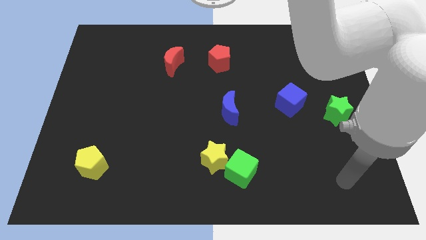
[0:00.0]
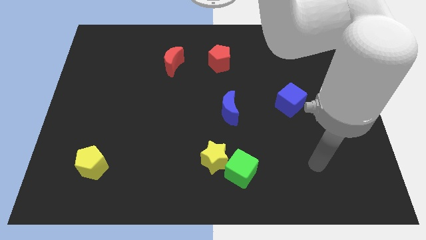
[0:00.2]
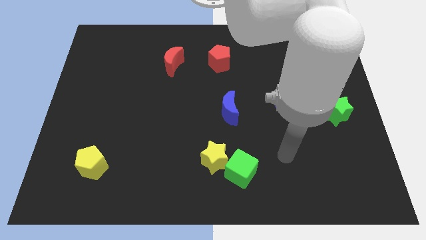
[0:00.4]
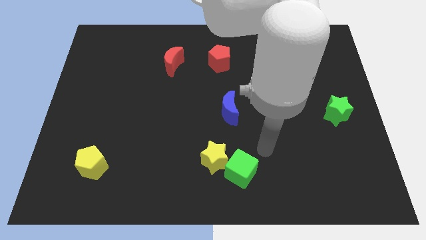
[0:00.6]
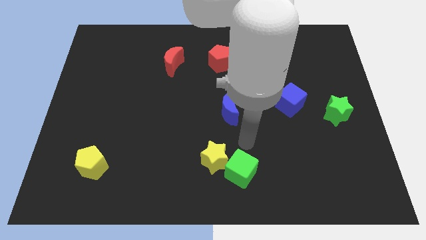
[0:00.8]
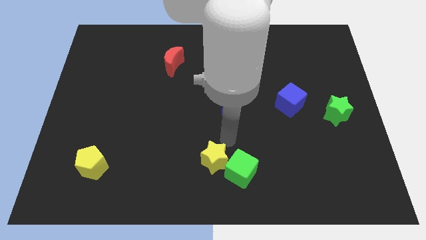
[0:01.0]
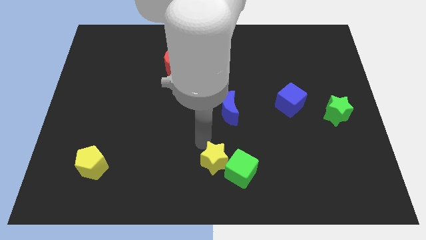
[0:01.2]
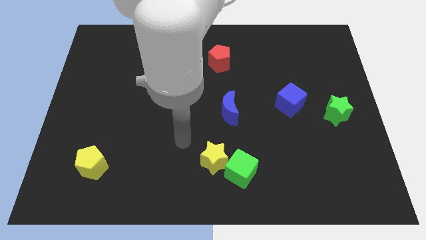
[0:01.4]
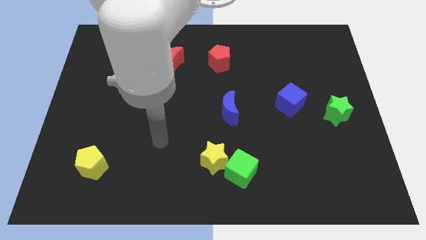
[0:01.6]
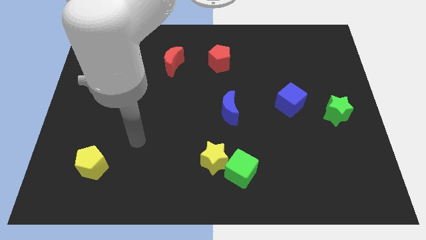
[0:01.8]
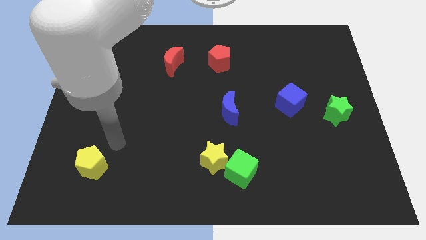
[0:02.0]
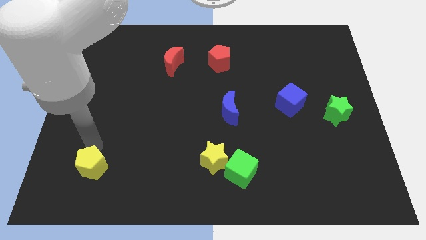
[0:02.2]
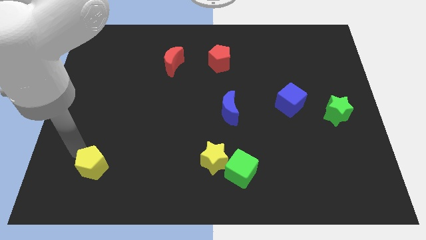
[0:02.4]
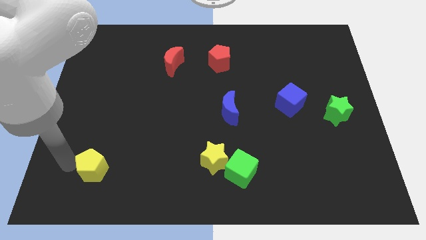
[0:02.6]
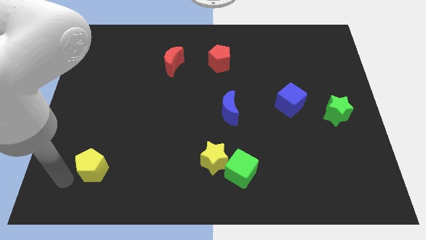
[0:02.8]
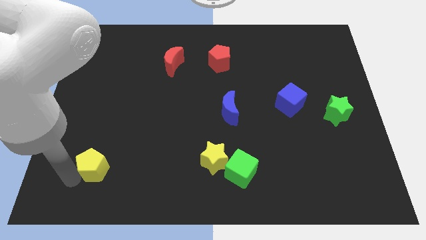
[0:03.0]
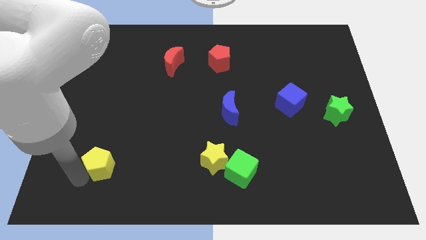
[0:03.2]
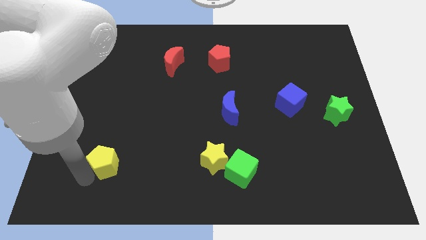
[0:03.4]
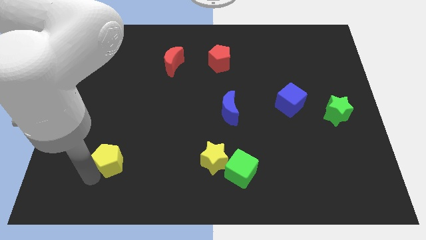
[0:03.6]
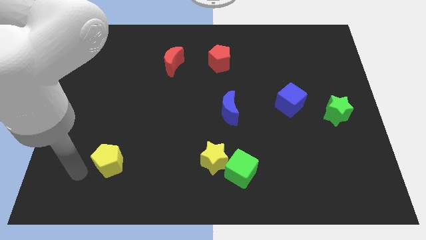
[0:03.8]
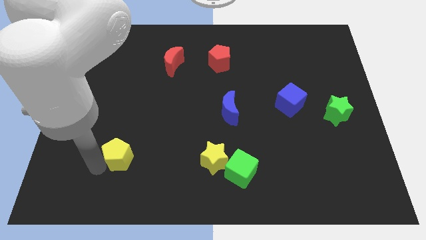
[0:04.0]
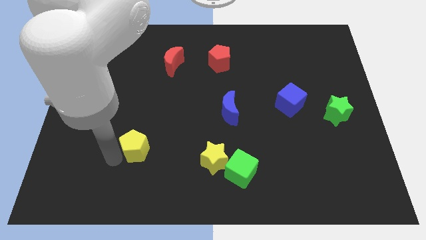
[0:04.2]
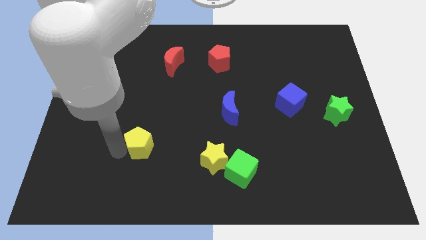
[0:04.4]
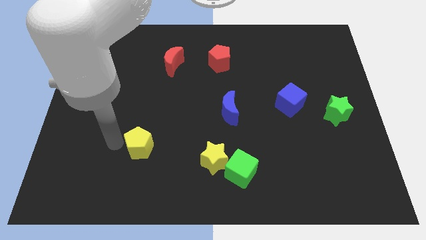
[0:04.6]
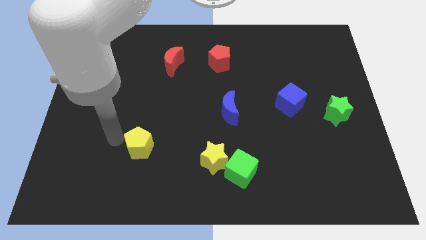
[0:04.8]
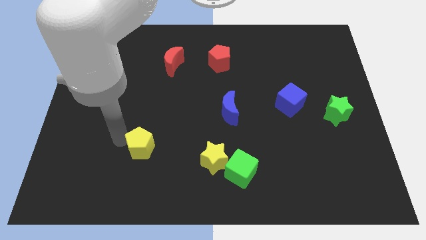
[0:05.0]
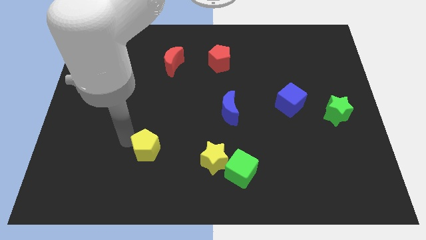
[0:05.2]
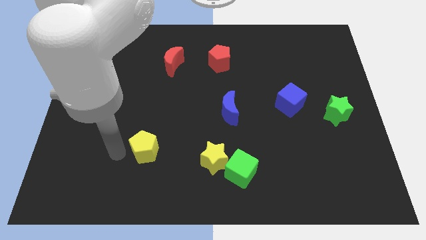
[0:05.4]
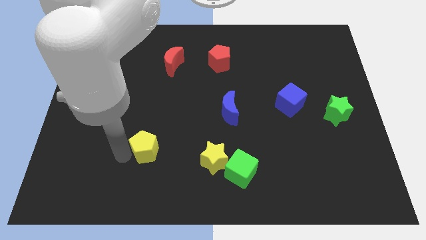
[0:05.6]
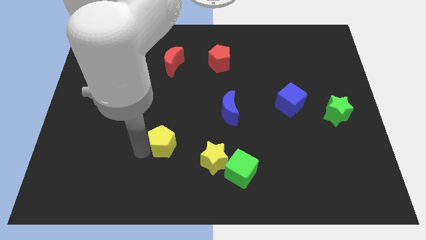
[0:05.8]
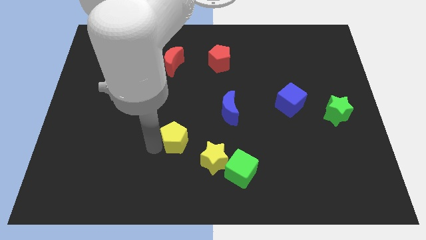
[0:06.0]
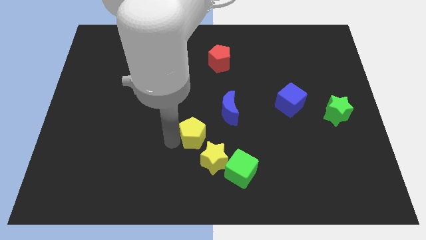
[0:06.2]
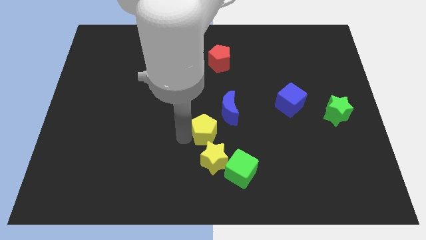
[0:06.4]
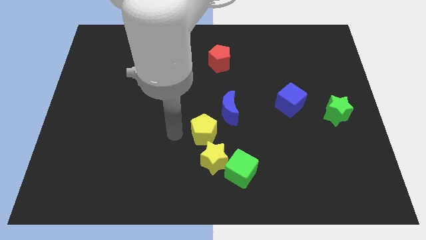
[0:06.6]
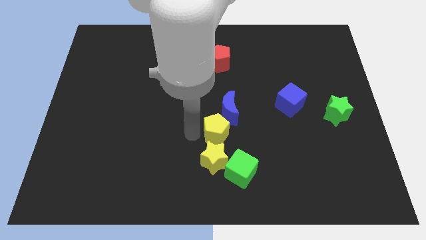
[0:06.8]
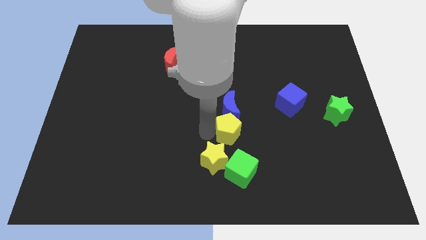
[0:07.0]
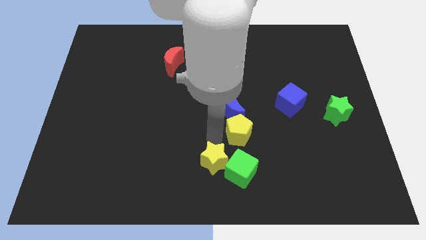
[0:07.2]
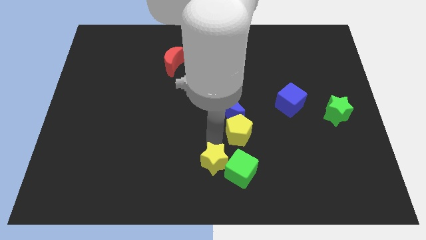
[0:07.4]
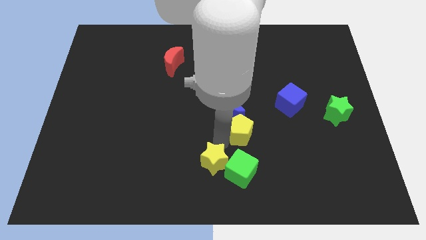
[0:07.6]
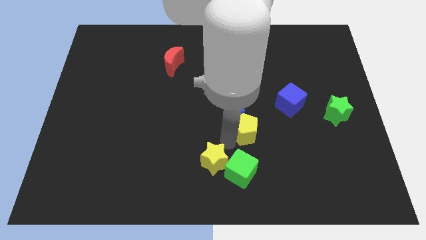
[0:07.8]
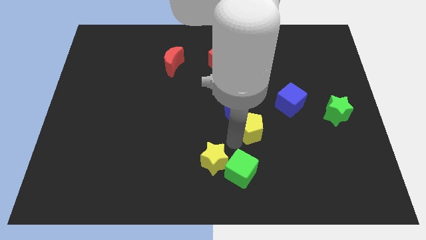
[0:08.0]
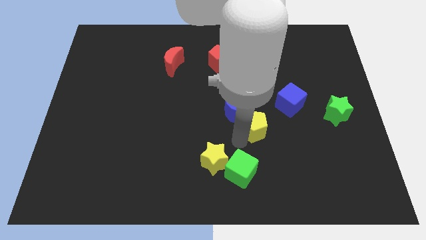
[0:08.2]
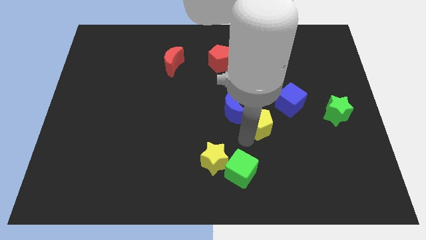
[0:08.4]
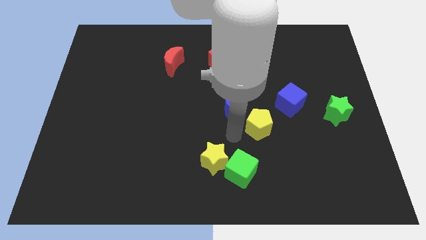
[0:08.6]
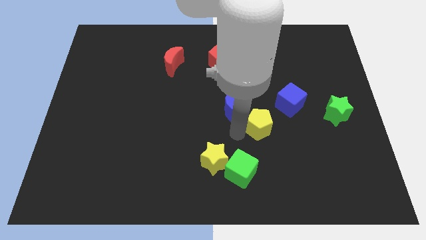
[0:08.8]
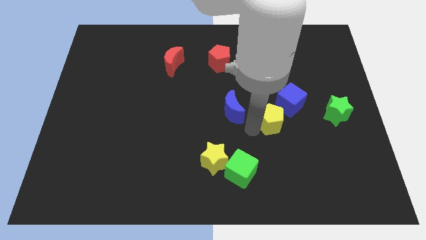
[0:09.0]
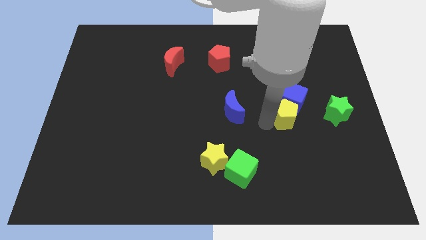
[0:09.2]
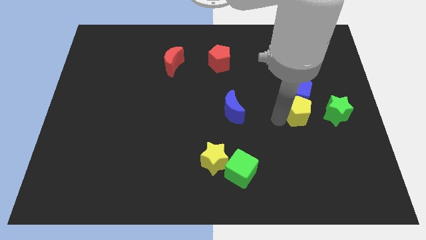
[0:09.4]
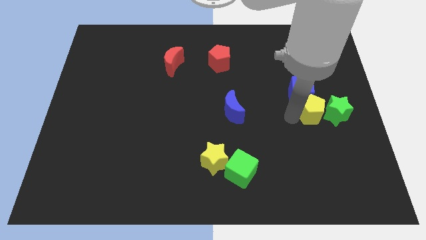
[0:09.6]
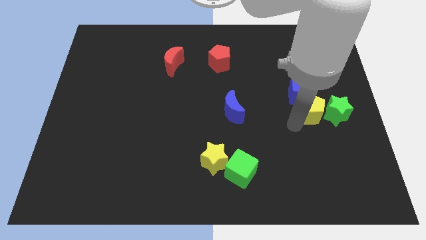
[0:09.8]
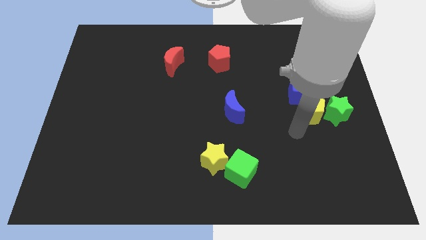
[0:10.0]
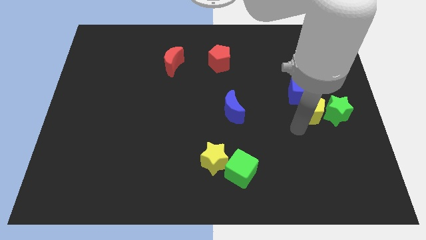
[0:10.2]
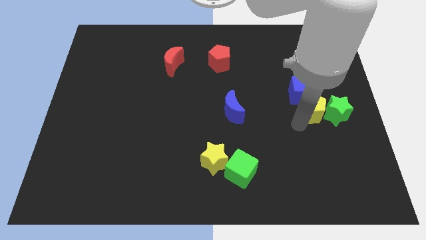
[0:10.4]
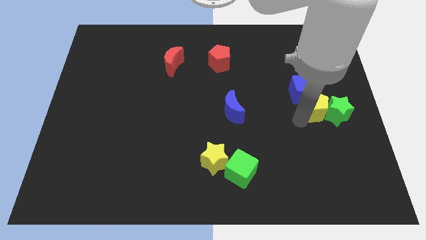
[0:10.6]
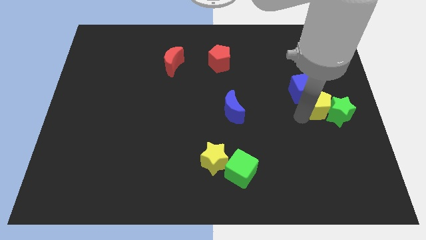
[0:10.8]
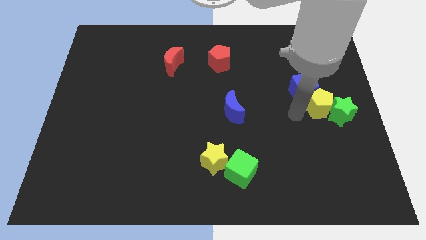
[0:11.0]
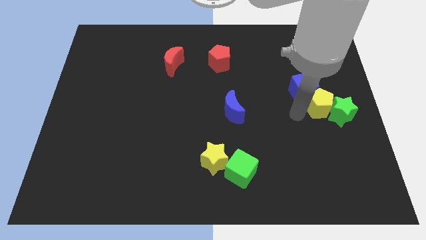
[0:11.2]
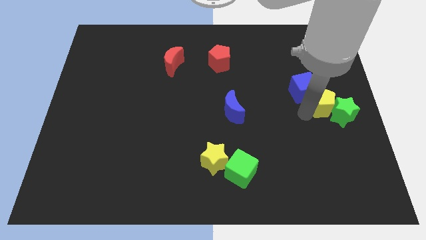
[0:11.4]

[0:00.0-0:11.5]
move the yellow pentagon to the right side of the board

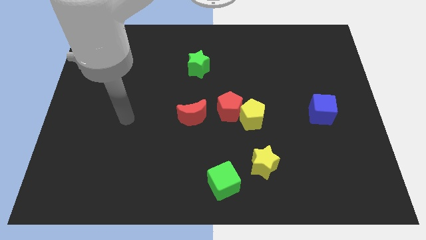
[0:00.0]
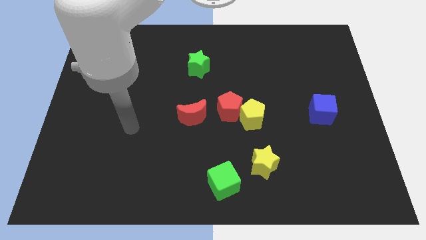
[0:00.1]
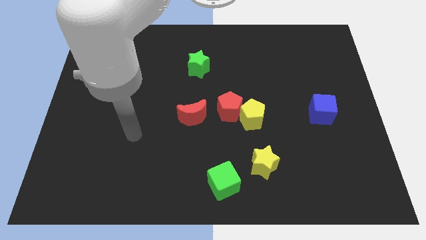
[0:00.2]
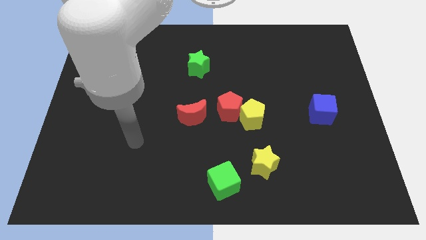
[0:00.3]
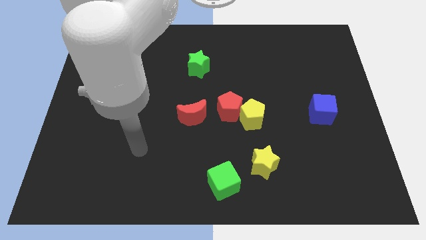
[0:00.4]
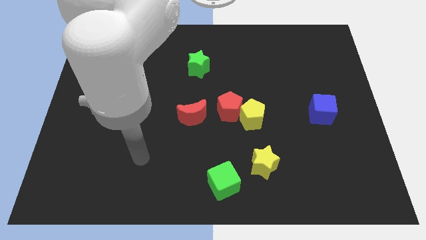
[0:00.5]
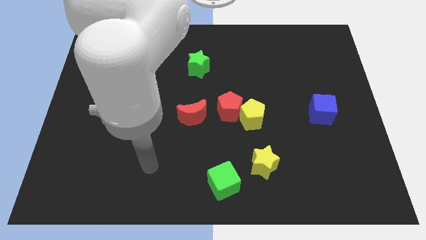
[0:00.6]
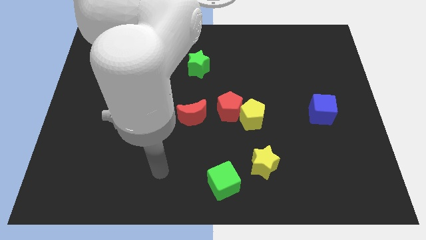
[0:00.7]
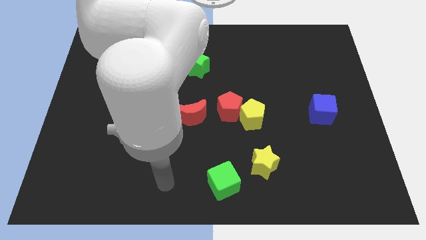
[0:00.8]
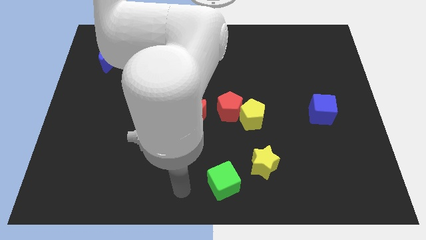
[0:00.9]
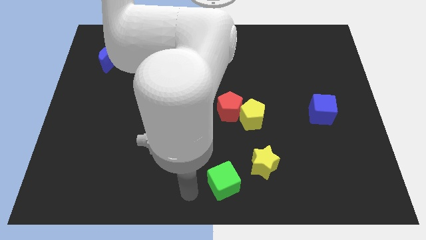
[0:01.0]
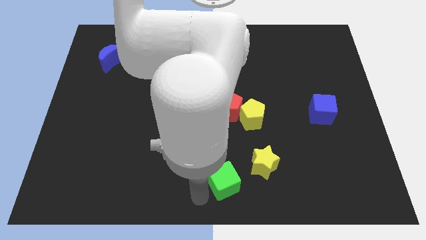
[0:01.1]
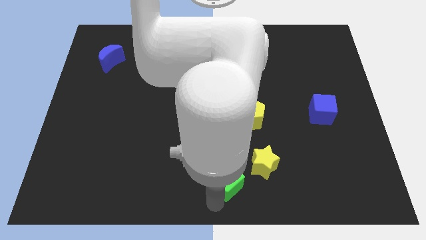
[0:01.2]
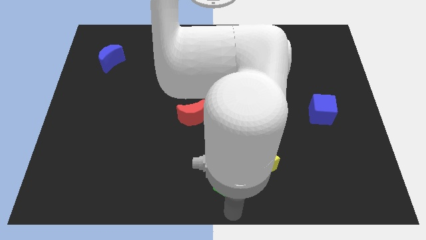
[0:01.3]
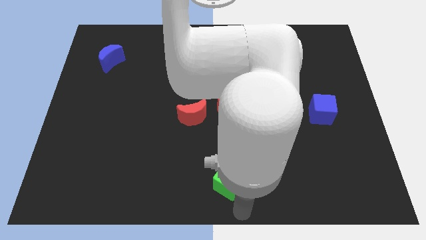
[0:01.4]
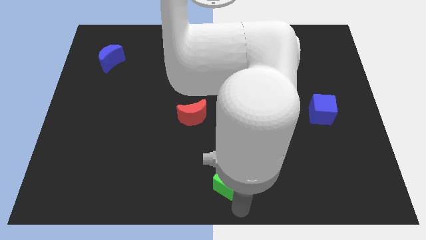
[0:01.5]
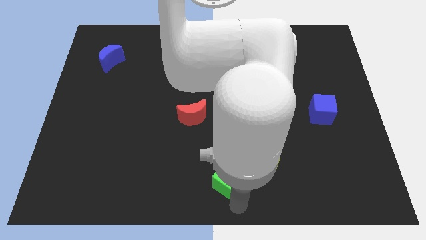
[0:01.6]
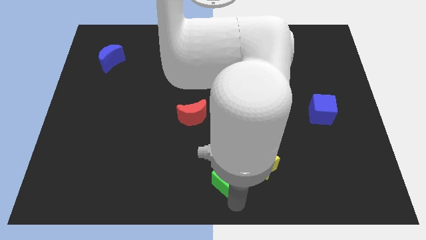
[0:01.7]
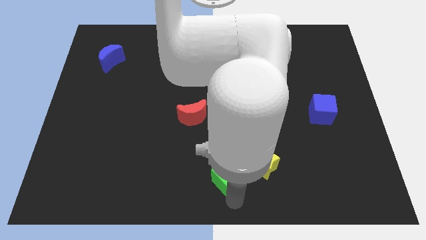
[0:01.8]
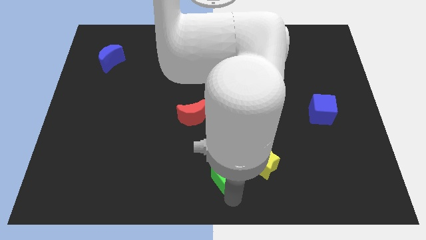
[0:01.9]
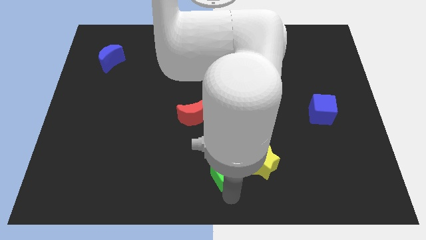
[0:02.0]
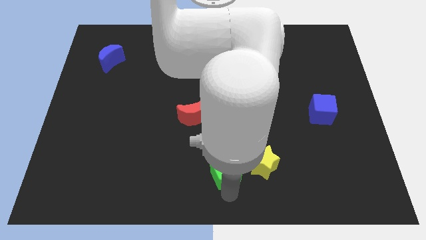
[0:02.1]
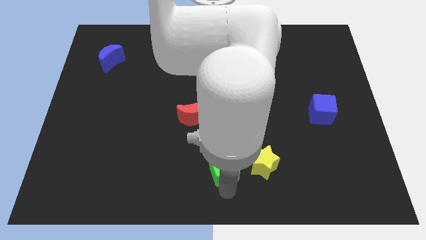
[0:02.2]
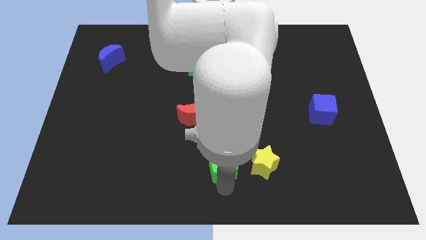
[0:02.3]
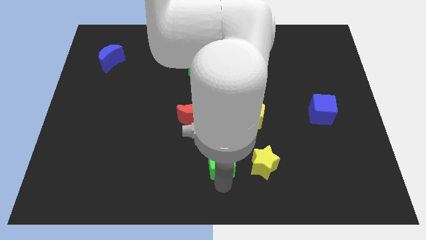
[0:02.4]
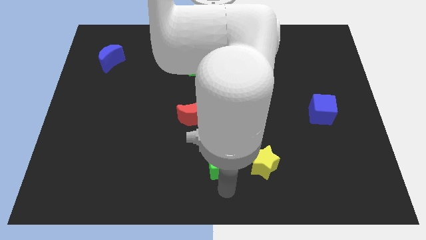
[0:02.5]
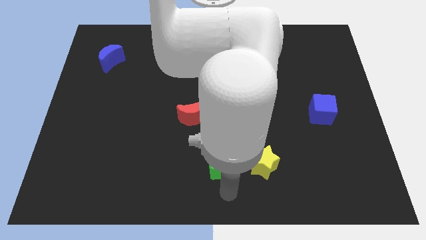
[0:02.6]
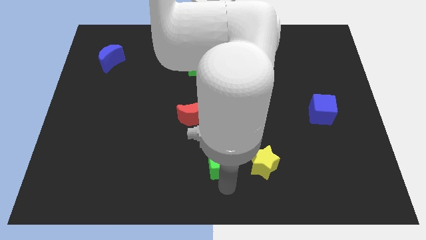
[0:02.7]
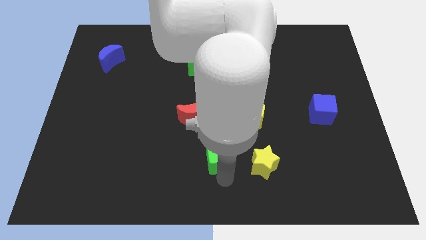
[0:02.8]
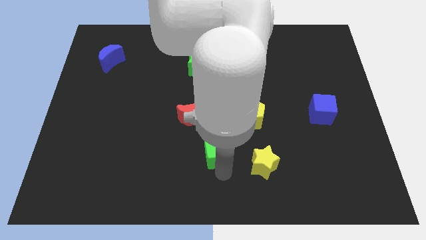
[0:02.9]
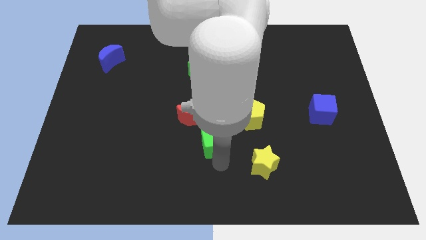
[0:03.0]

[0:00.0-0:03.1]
move the green cube to the middle
